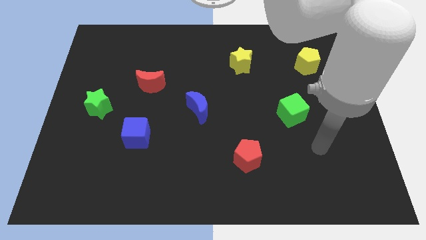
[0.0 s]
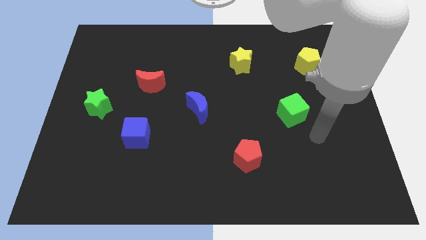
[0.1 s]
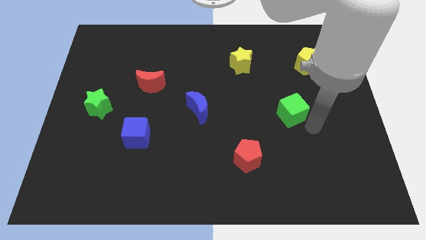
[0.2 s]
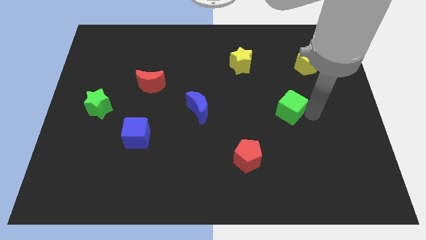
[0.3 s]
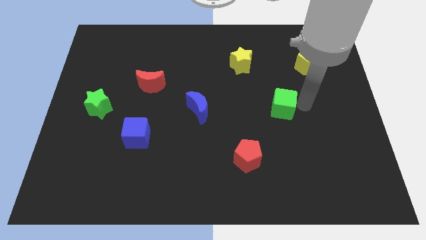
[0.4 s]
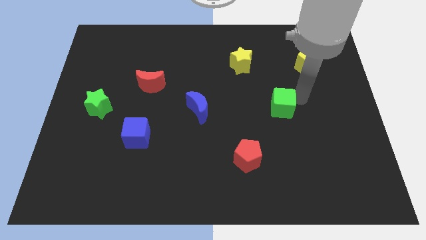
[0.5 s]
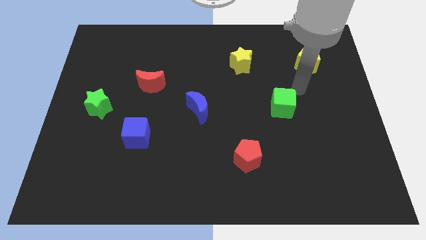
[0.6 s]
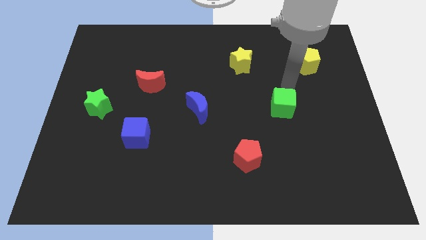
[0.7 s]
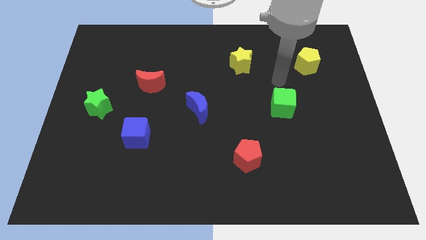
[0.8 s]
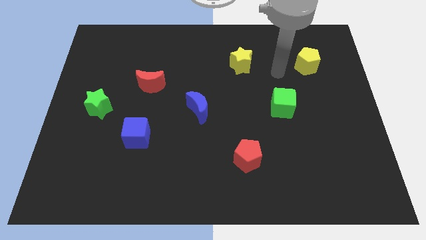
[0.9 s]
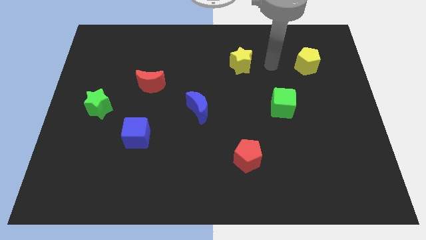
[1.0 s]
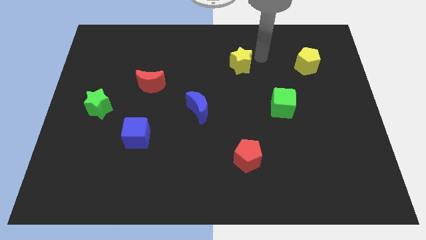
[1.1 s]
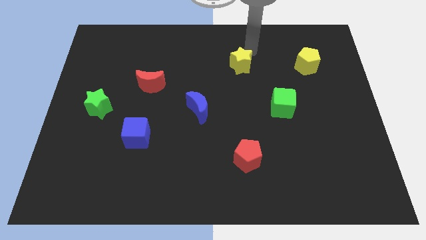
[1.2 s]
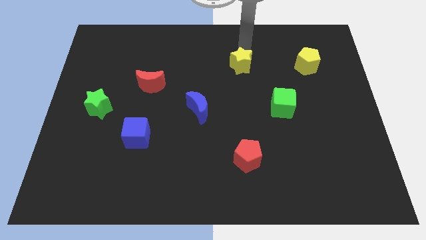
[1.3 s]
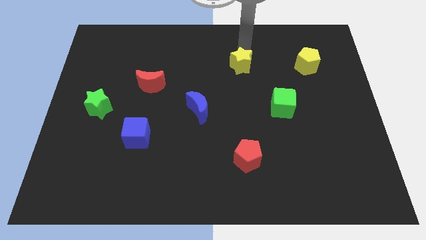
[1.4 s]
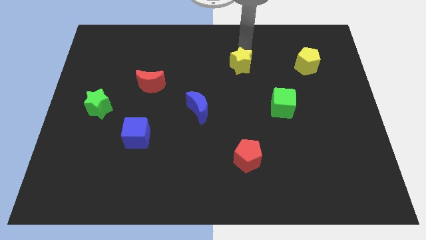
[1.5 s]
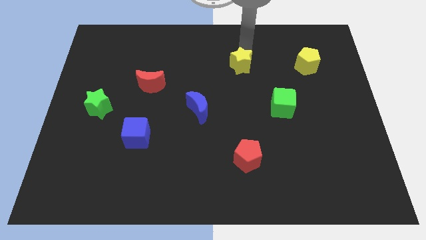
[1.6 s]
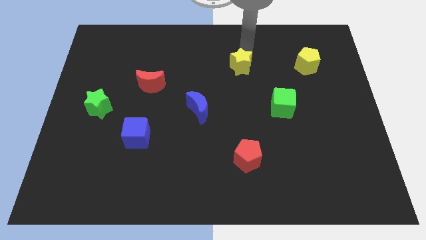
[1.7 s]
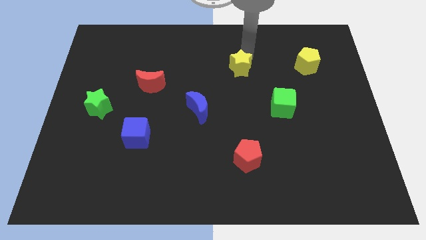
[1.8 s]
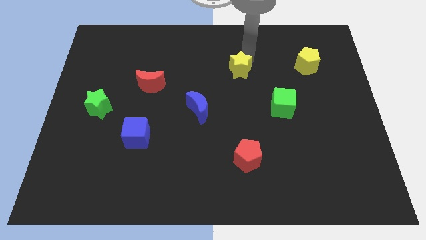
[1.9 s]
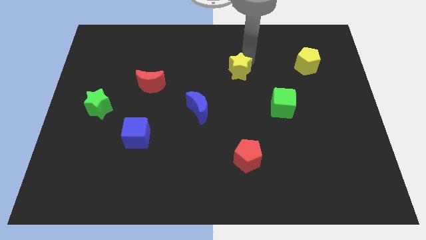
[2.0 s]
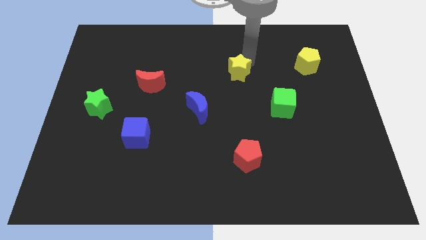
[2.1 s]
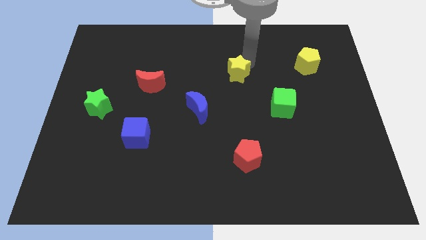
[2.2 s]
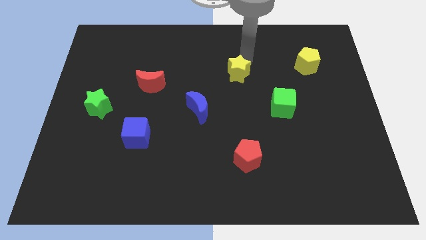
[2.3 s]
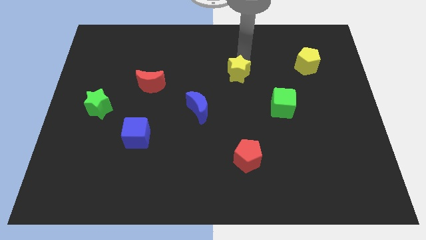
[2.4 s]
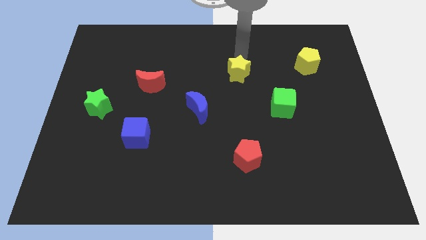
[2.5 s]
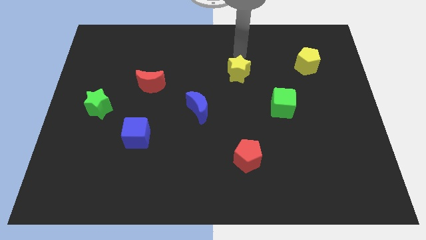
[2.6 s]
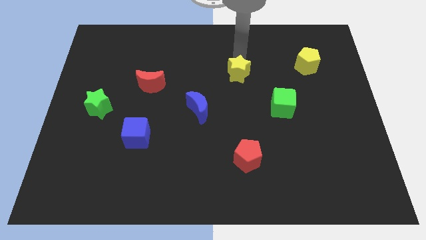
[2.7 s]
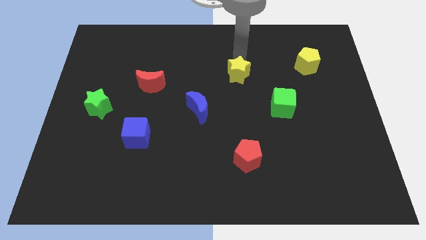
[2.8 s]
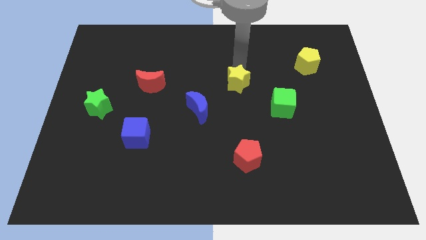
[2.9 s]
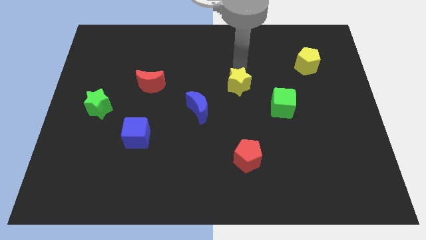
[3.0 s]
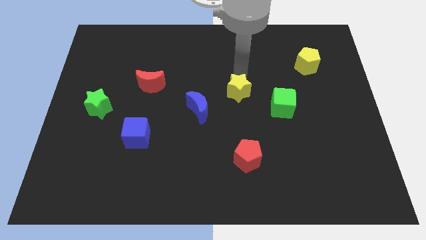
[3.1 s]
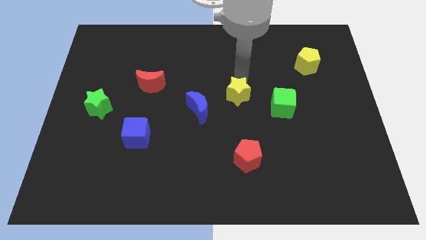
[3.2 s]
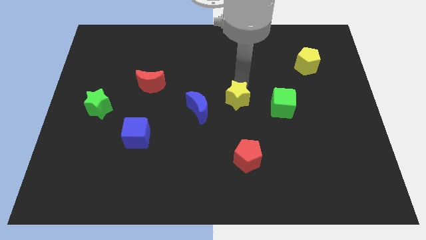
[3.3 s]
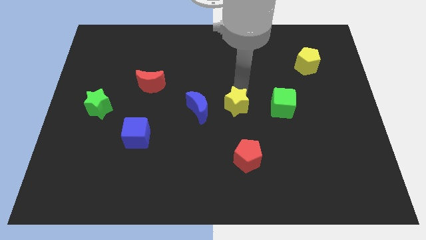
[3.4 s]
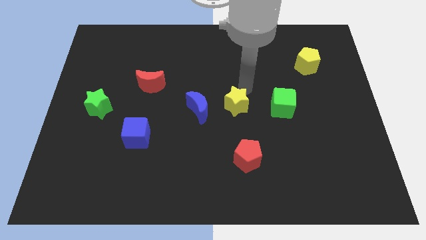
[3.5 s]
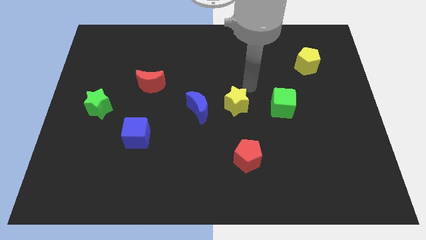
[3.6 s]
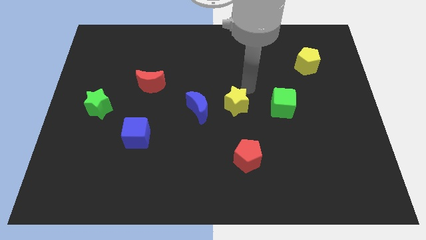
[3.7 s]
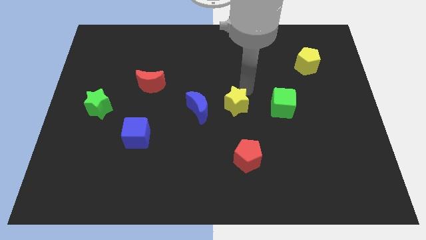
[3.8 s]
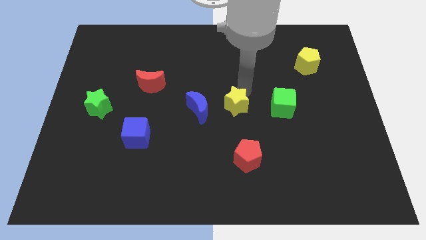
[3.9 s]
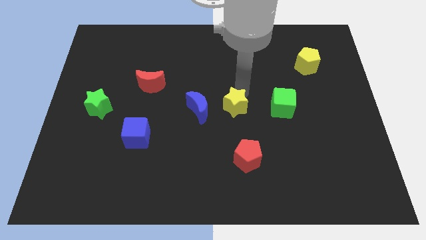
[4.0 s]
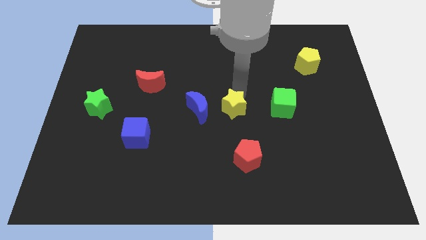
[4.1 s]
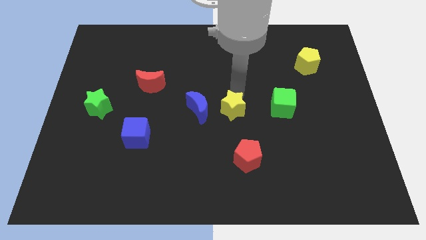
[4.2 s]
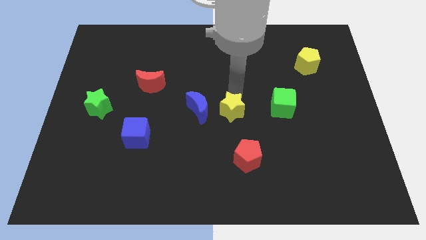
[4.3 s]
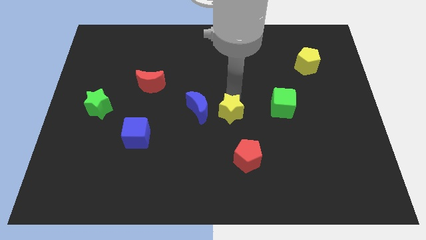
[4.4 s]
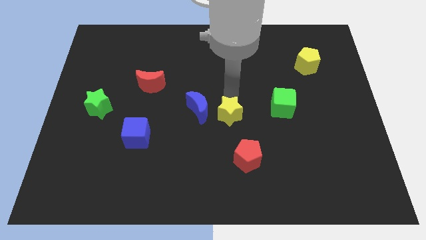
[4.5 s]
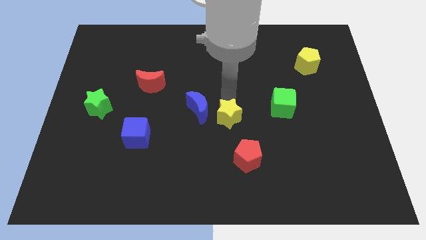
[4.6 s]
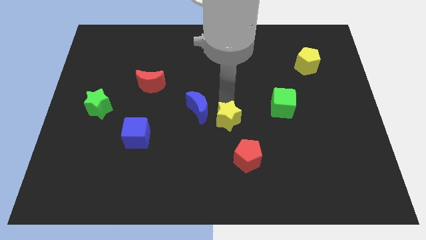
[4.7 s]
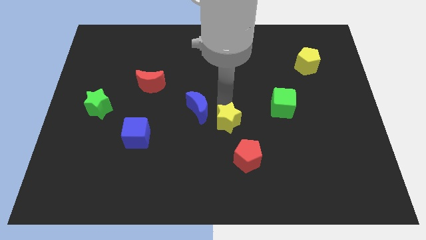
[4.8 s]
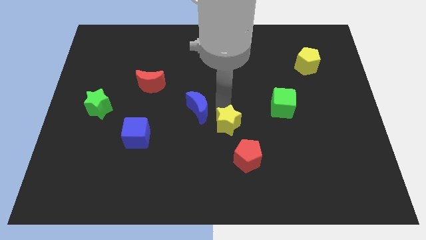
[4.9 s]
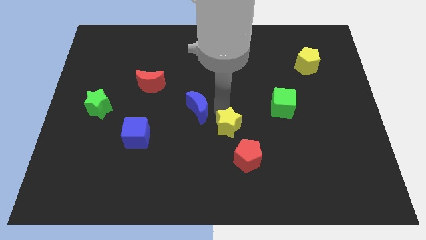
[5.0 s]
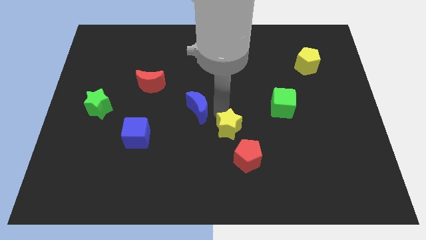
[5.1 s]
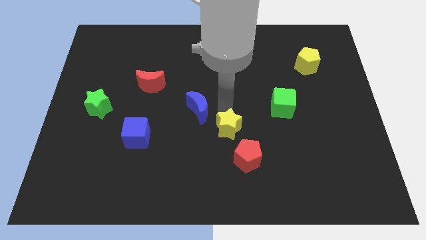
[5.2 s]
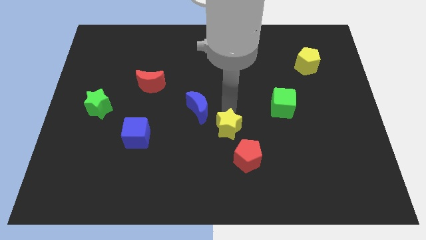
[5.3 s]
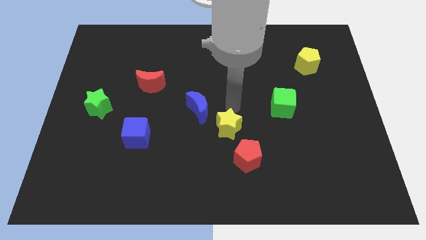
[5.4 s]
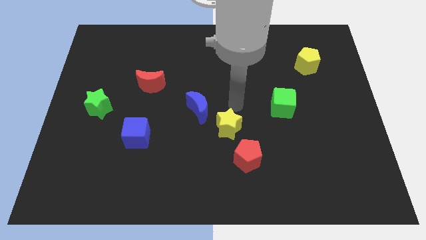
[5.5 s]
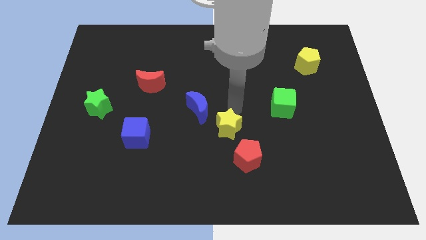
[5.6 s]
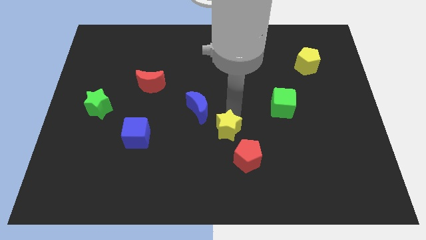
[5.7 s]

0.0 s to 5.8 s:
slide the yellow star downwards

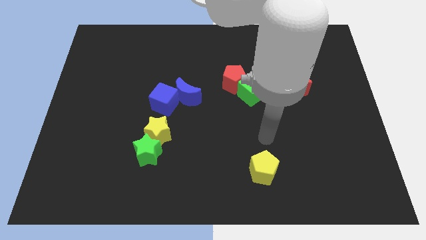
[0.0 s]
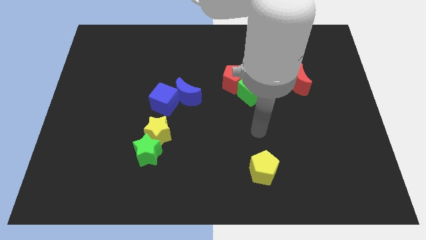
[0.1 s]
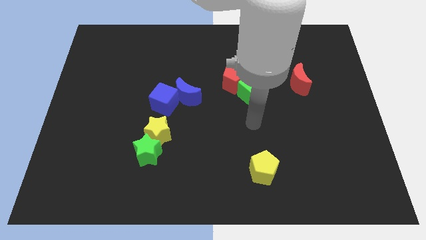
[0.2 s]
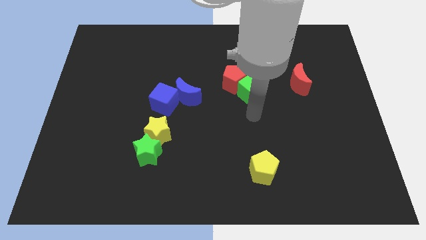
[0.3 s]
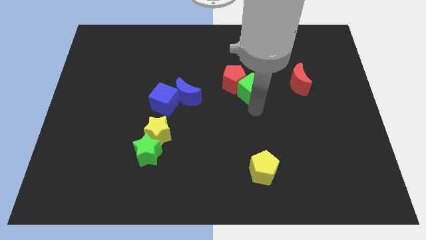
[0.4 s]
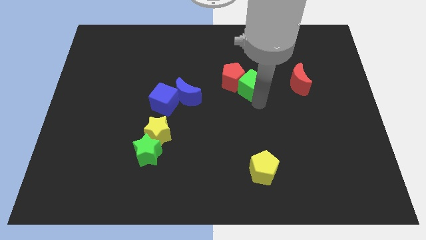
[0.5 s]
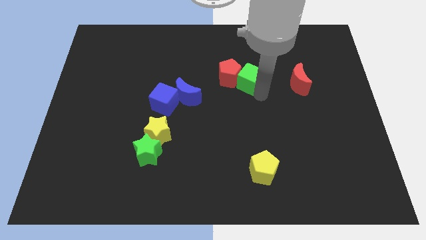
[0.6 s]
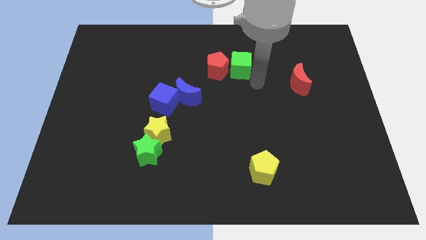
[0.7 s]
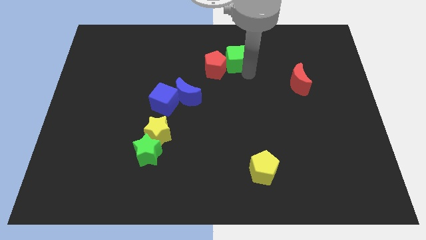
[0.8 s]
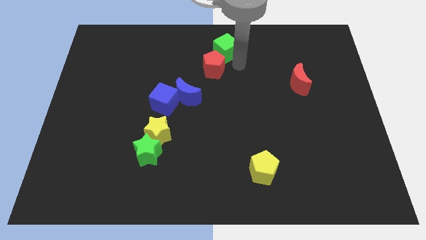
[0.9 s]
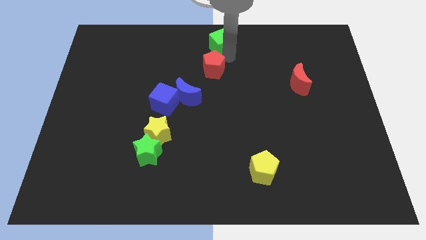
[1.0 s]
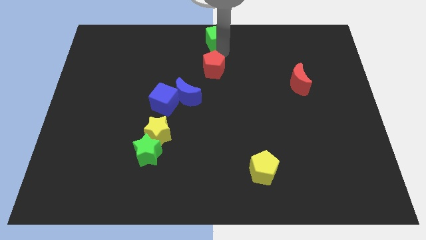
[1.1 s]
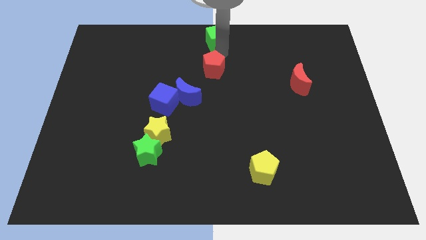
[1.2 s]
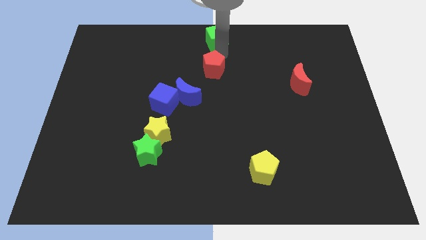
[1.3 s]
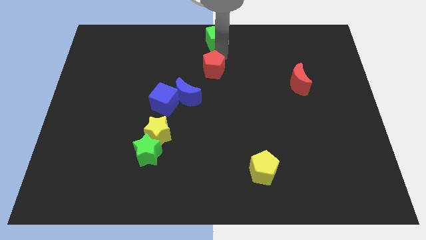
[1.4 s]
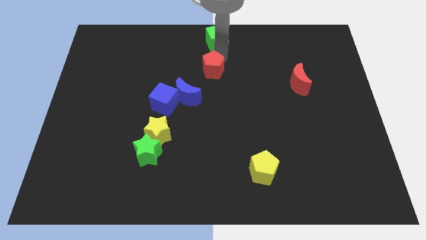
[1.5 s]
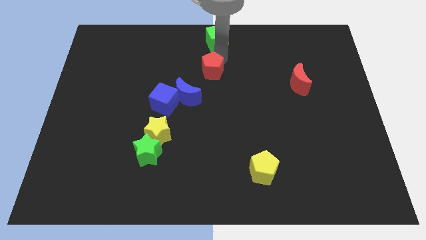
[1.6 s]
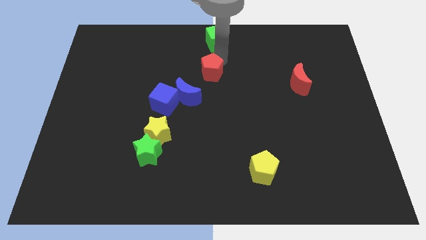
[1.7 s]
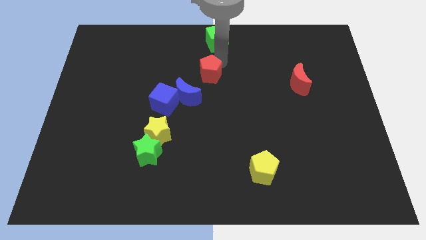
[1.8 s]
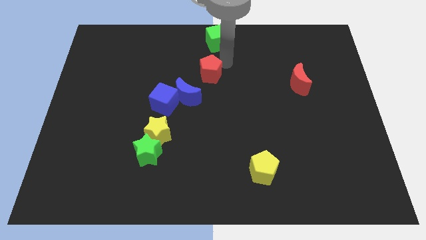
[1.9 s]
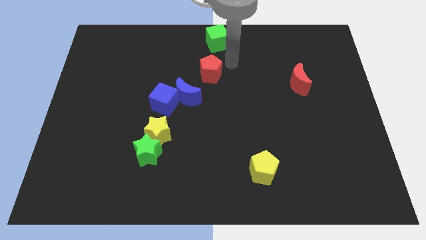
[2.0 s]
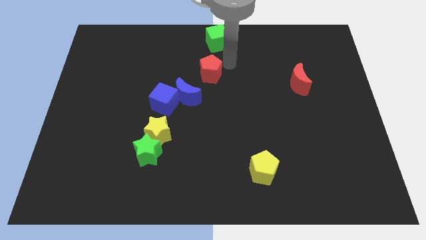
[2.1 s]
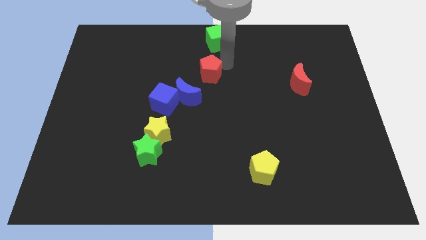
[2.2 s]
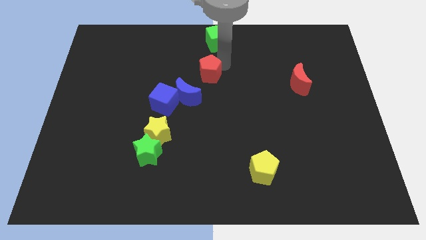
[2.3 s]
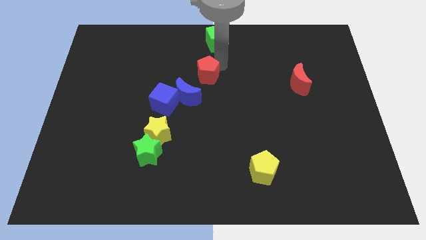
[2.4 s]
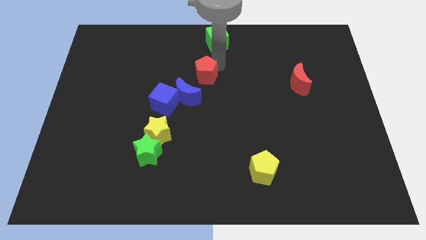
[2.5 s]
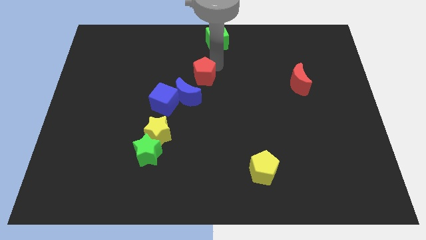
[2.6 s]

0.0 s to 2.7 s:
slightly move the red pentagon to the left
